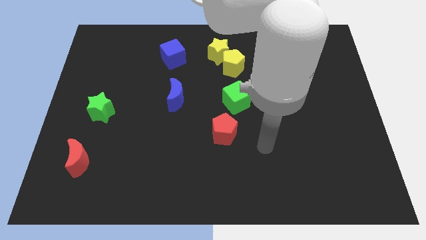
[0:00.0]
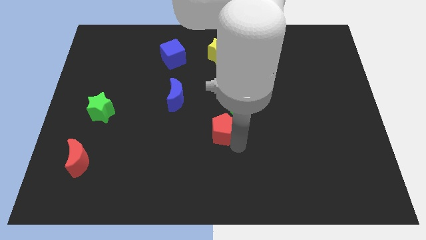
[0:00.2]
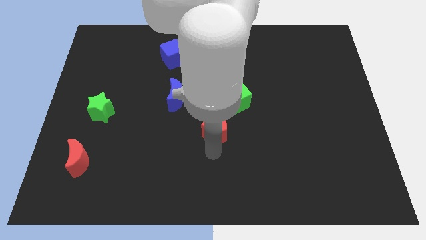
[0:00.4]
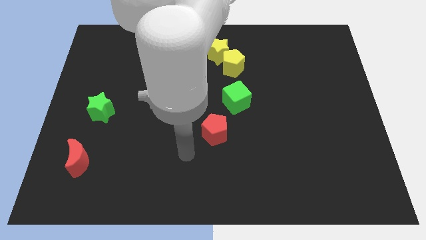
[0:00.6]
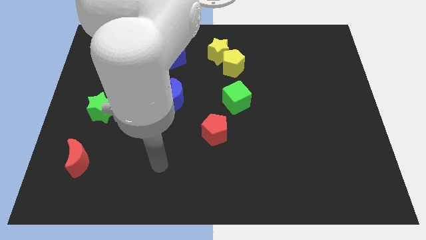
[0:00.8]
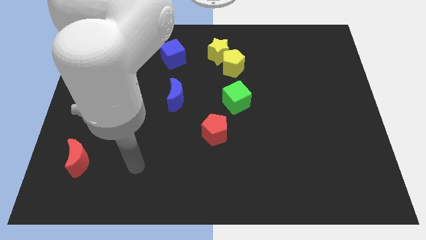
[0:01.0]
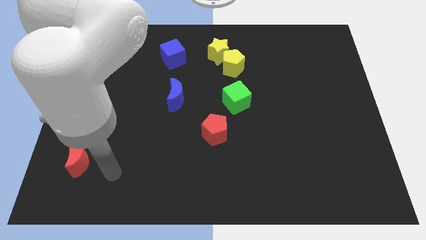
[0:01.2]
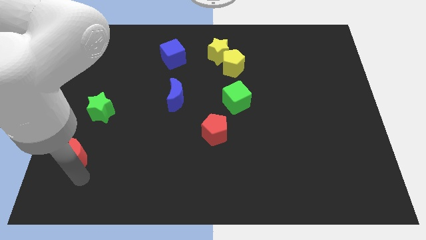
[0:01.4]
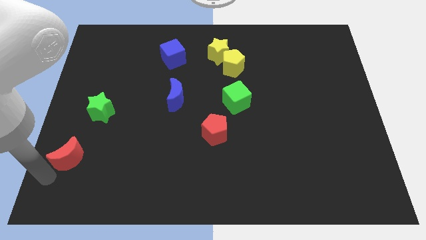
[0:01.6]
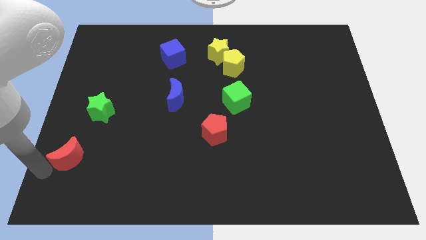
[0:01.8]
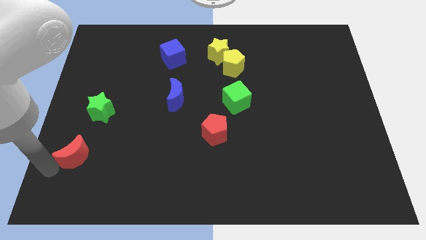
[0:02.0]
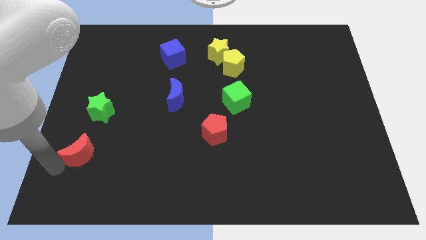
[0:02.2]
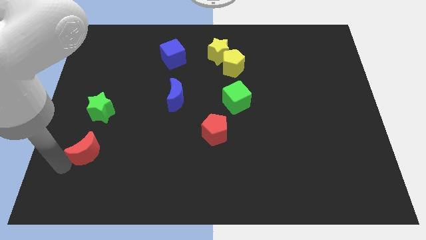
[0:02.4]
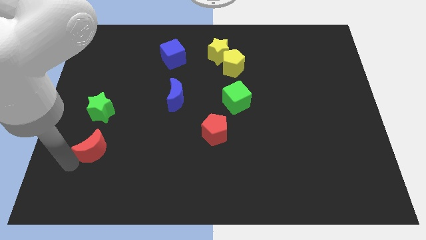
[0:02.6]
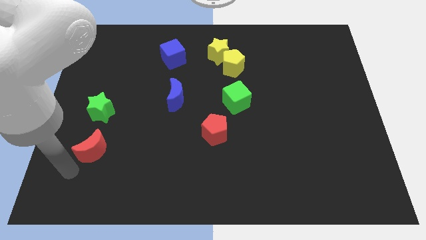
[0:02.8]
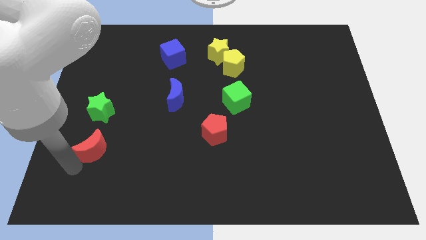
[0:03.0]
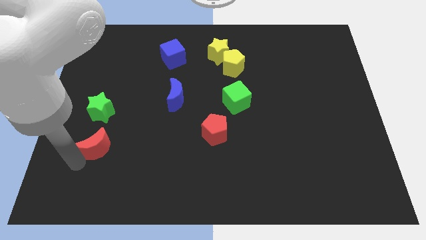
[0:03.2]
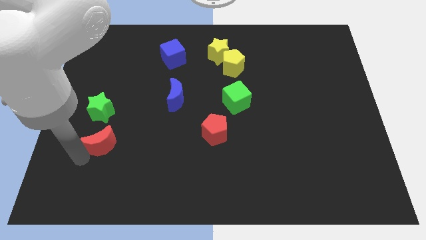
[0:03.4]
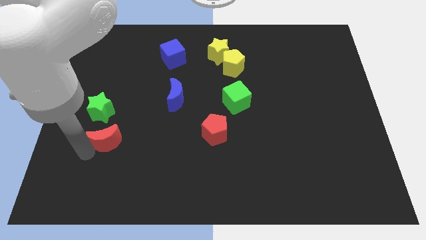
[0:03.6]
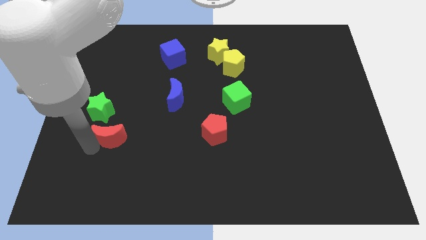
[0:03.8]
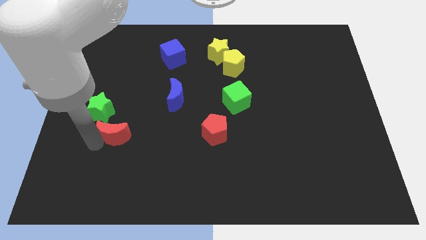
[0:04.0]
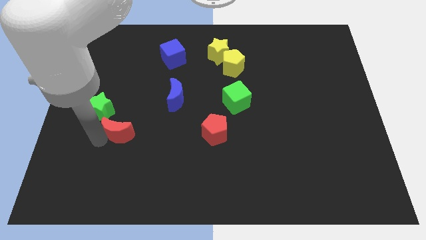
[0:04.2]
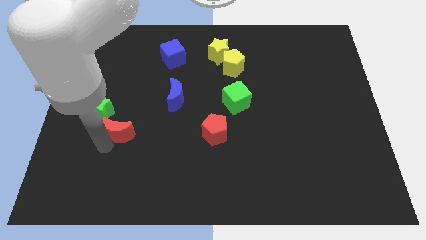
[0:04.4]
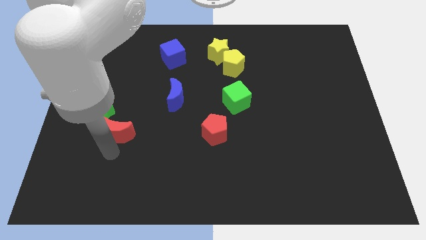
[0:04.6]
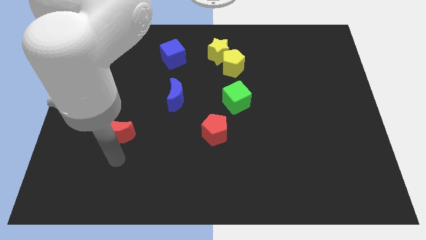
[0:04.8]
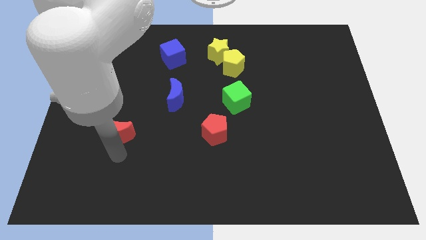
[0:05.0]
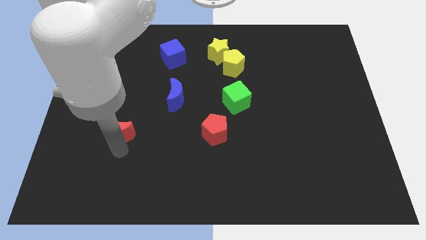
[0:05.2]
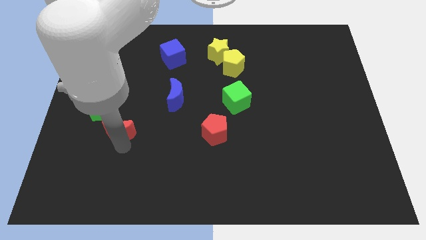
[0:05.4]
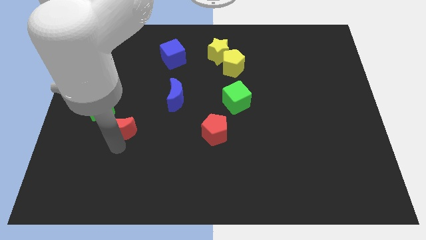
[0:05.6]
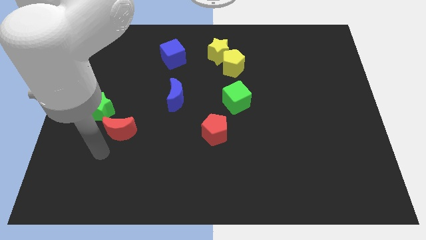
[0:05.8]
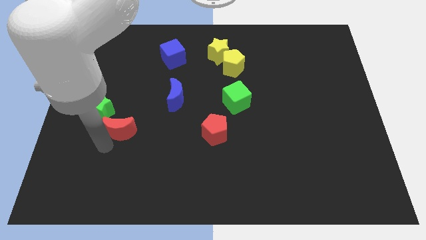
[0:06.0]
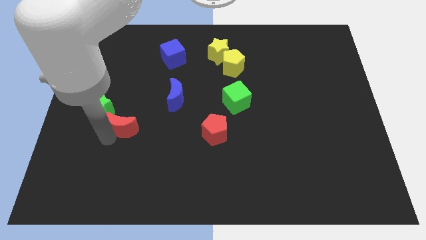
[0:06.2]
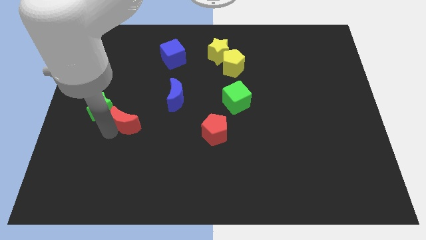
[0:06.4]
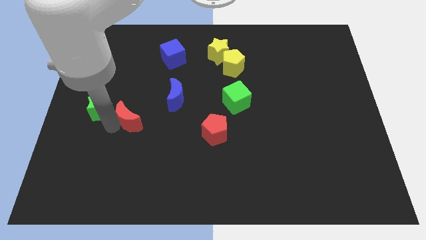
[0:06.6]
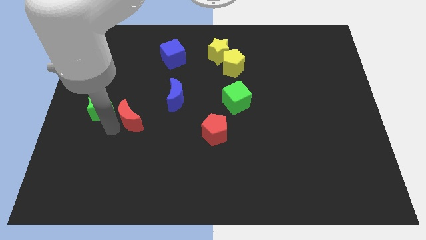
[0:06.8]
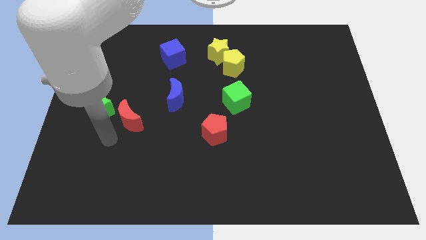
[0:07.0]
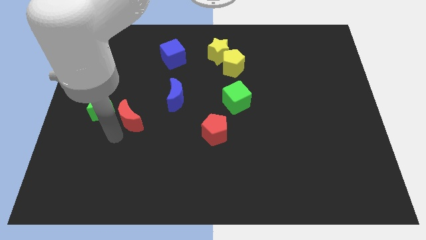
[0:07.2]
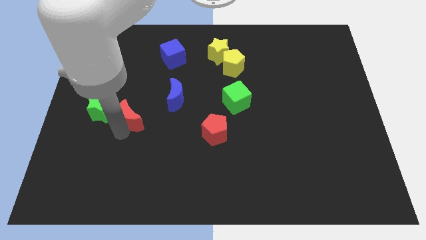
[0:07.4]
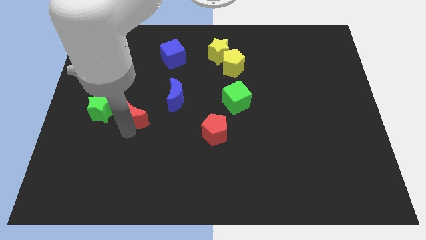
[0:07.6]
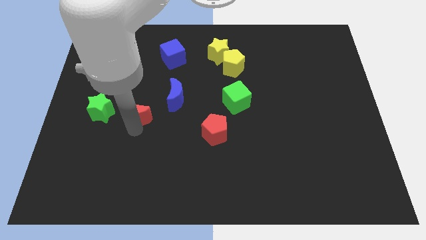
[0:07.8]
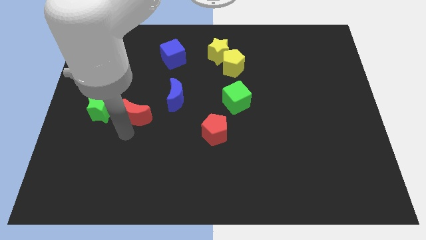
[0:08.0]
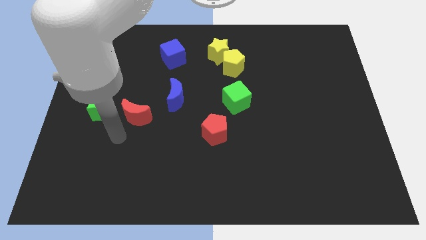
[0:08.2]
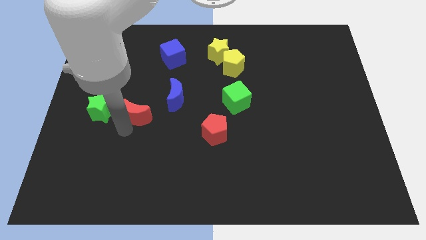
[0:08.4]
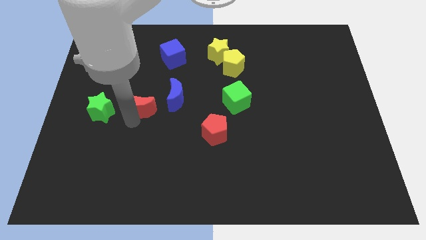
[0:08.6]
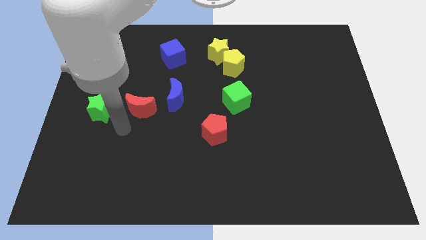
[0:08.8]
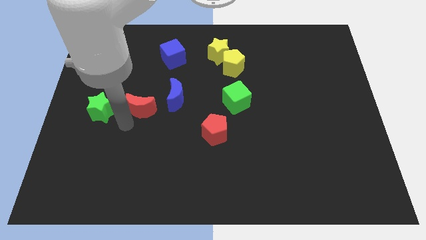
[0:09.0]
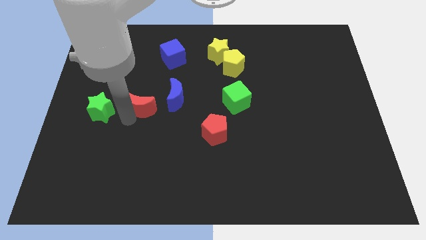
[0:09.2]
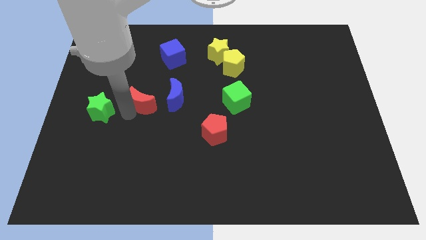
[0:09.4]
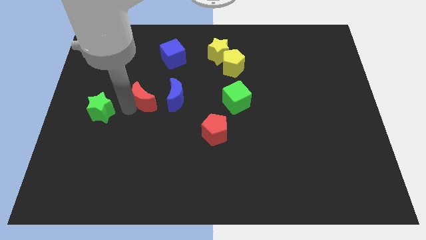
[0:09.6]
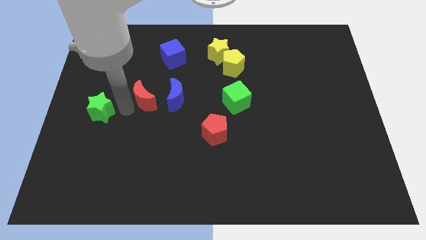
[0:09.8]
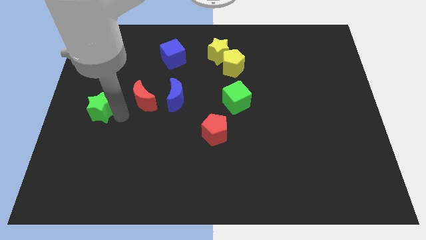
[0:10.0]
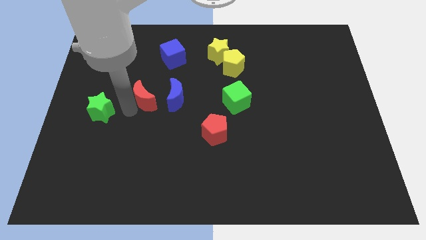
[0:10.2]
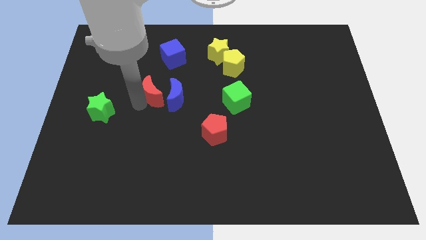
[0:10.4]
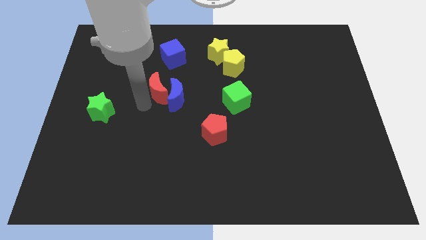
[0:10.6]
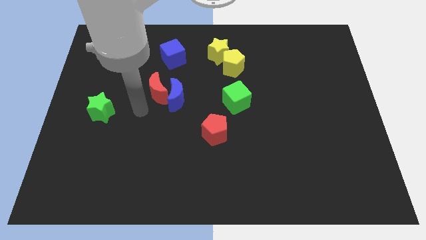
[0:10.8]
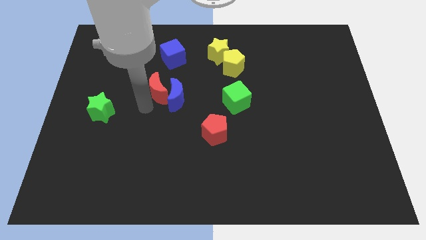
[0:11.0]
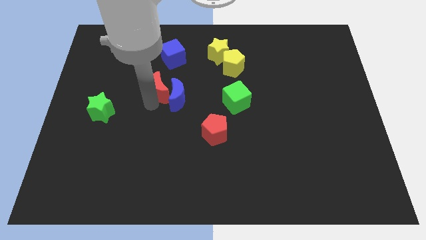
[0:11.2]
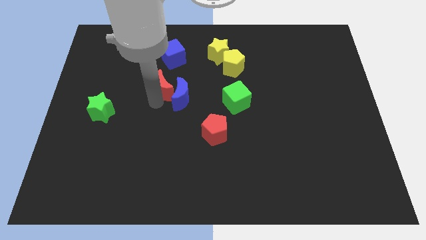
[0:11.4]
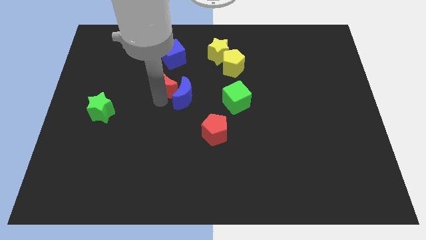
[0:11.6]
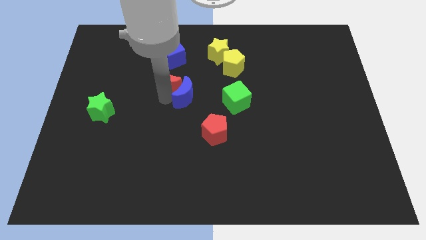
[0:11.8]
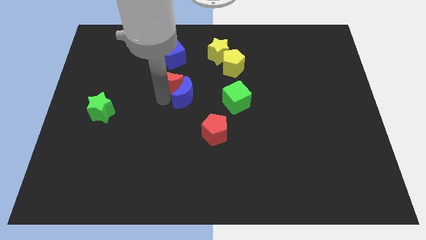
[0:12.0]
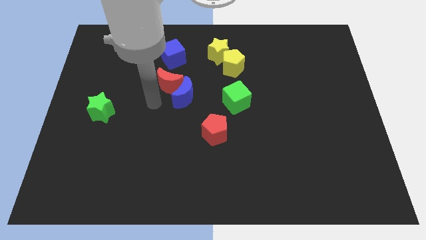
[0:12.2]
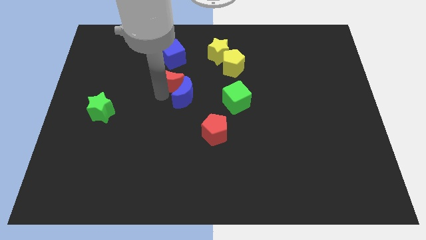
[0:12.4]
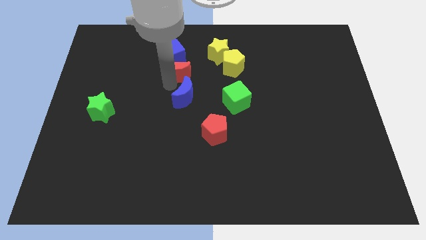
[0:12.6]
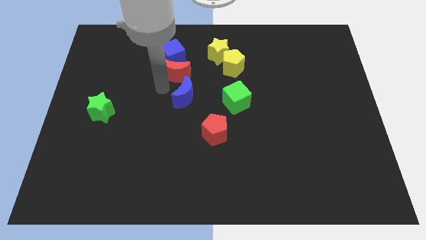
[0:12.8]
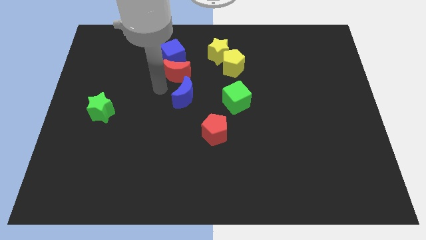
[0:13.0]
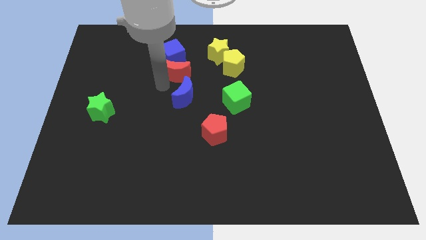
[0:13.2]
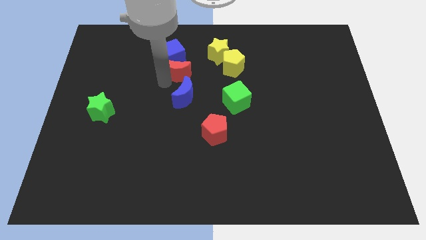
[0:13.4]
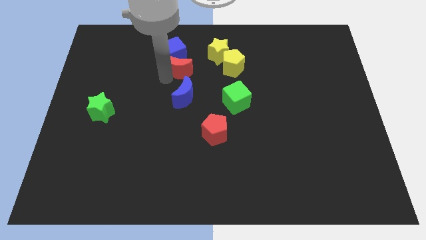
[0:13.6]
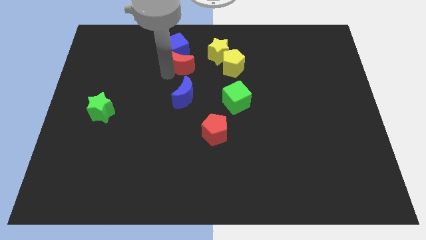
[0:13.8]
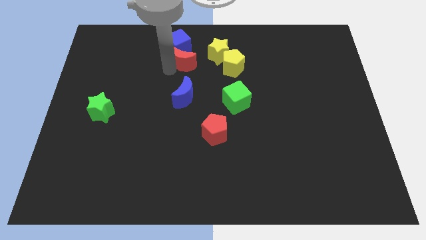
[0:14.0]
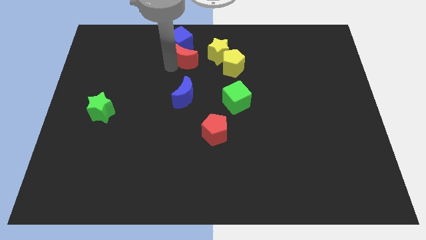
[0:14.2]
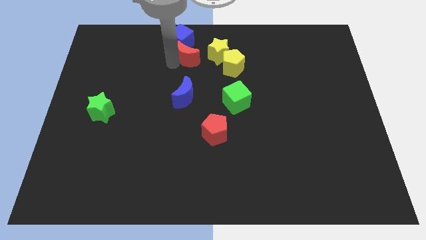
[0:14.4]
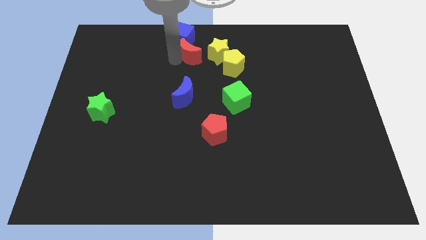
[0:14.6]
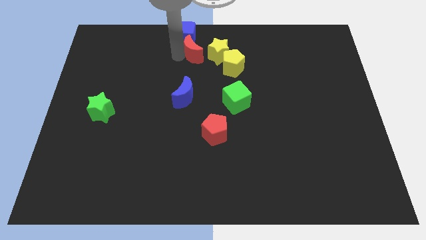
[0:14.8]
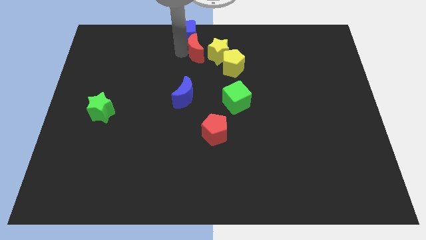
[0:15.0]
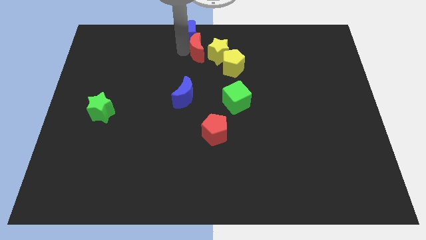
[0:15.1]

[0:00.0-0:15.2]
put the red moon next to the yellow star

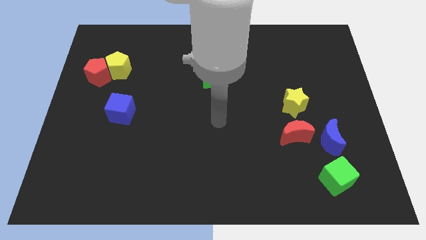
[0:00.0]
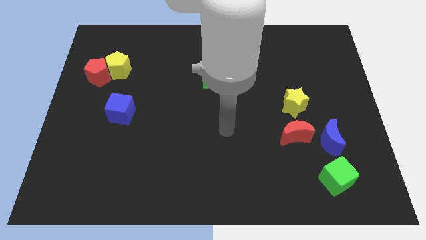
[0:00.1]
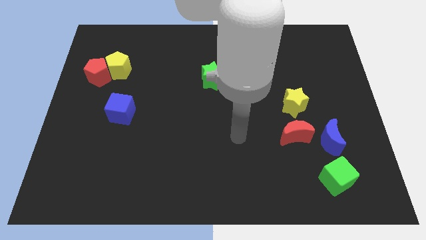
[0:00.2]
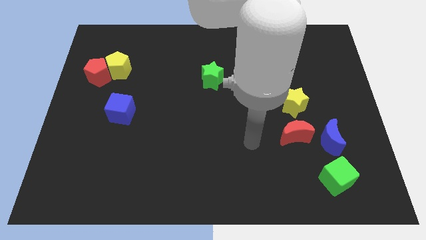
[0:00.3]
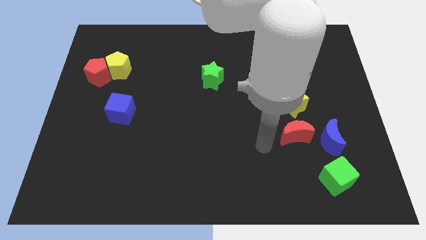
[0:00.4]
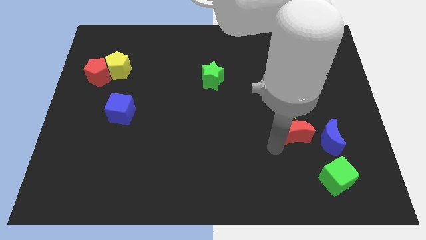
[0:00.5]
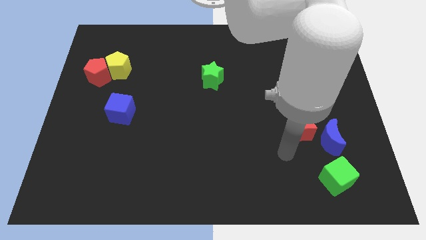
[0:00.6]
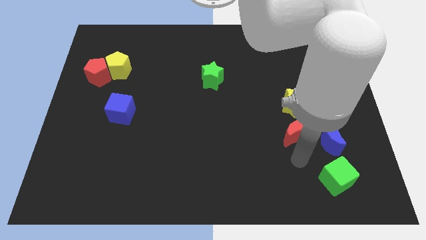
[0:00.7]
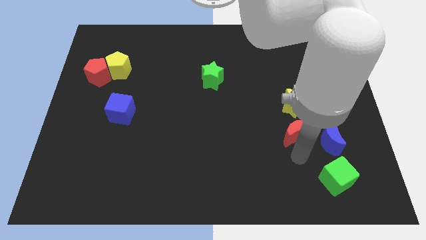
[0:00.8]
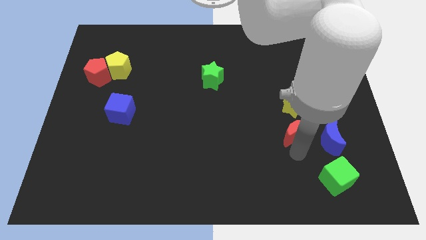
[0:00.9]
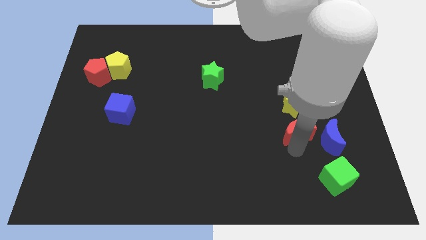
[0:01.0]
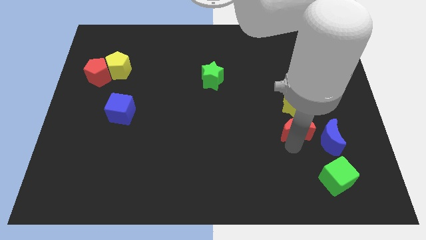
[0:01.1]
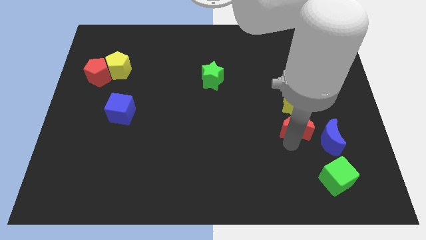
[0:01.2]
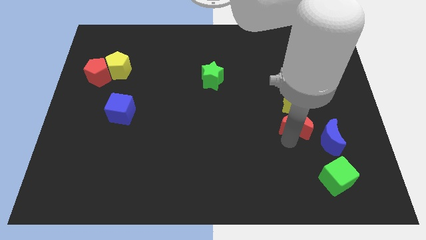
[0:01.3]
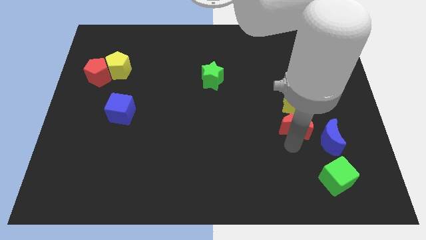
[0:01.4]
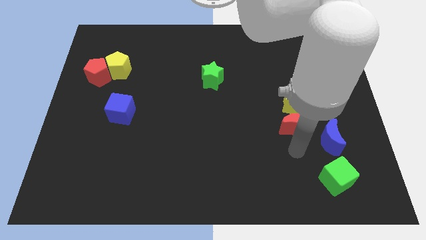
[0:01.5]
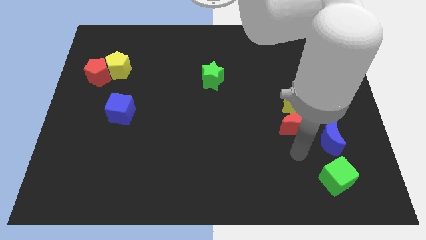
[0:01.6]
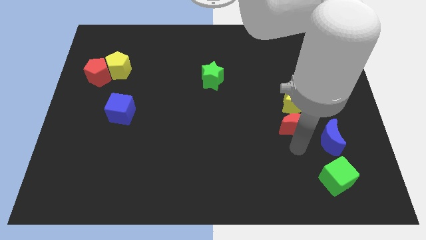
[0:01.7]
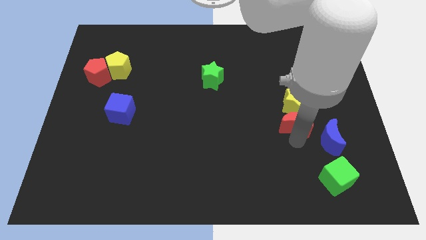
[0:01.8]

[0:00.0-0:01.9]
put the red moon to the yellow star
